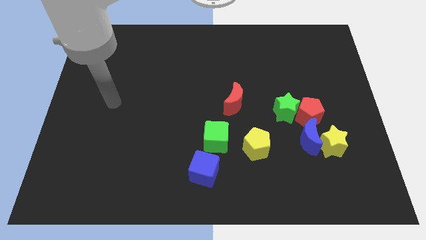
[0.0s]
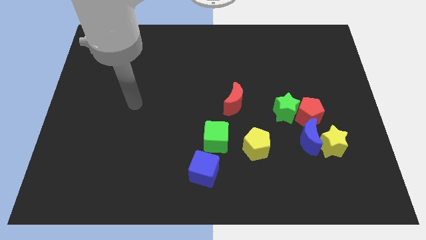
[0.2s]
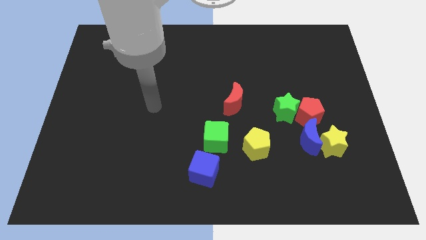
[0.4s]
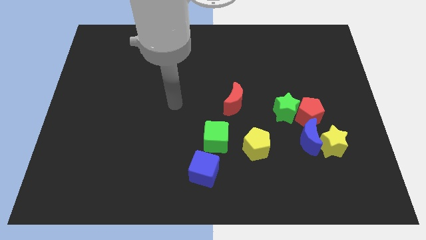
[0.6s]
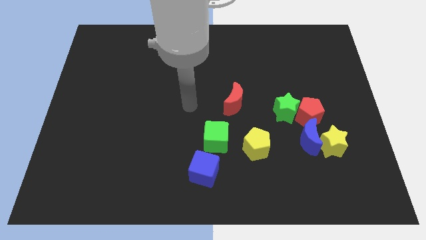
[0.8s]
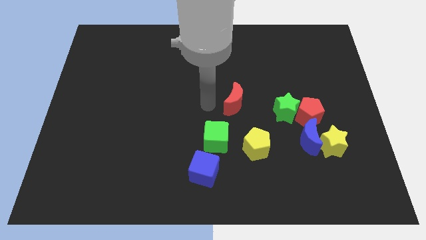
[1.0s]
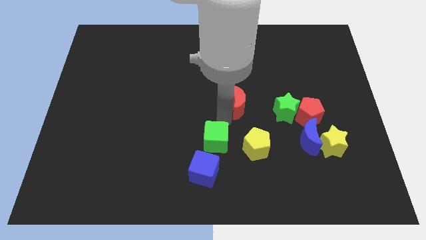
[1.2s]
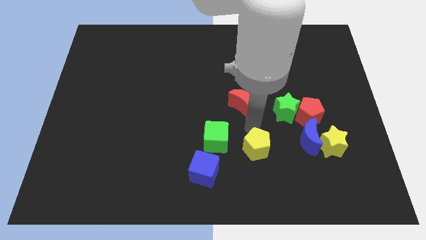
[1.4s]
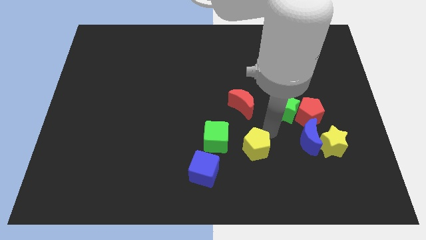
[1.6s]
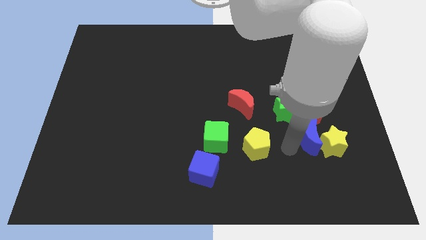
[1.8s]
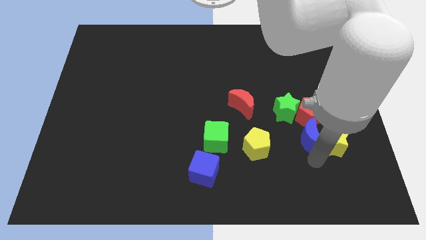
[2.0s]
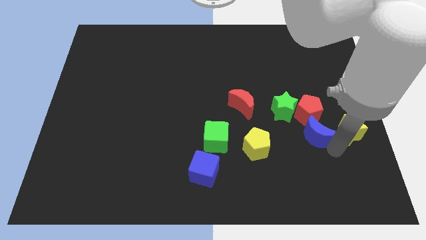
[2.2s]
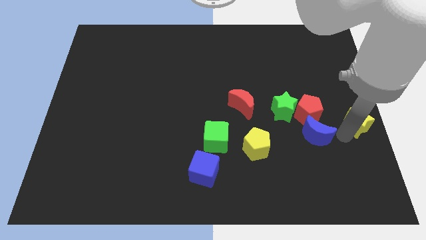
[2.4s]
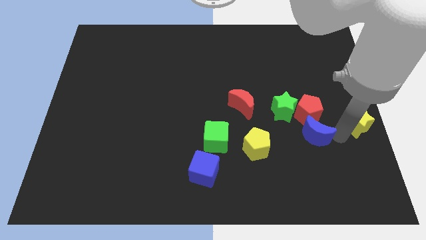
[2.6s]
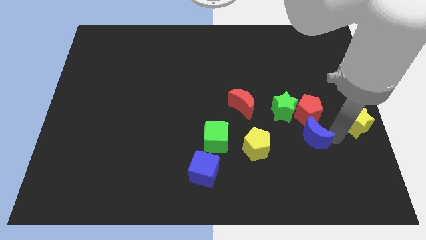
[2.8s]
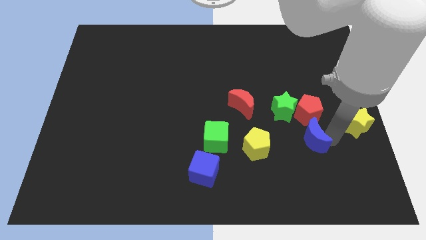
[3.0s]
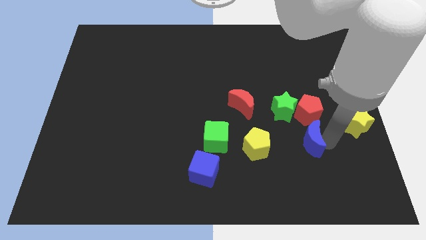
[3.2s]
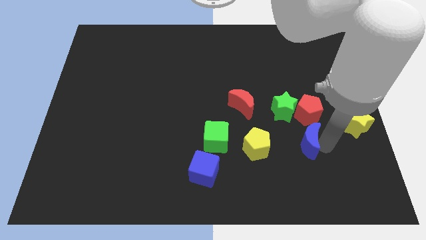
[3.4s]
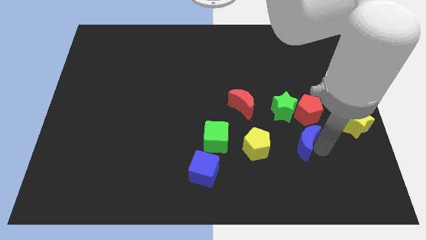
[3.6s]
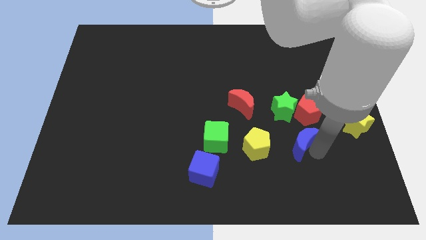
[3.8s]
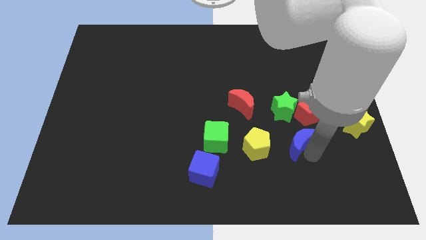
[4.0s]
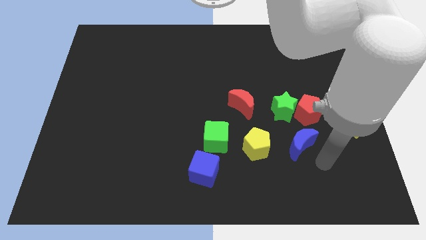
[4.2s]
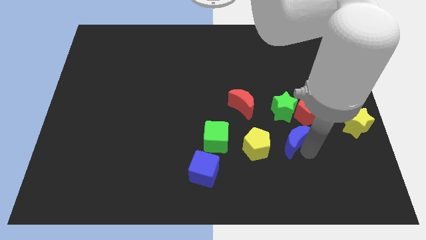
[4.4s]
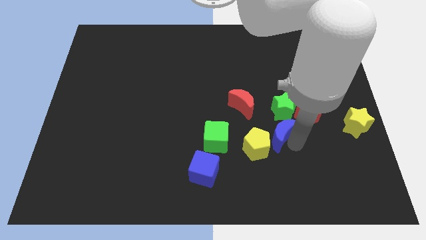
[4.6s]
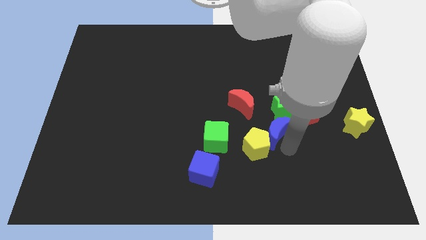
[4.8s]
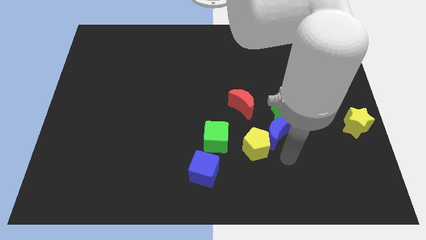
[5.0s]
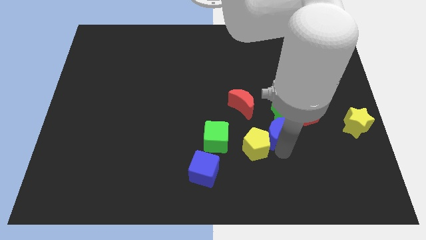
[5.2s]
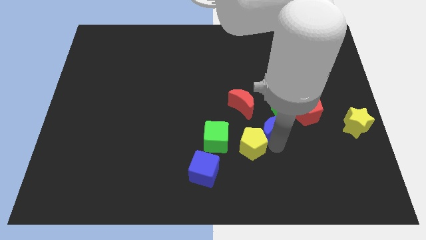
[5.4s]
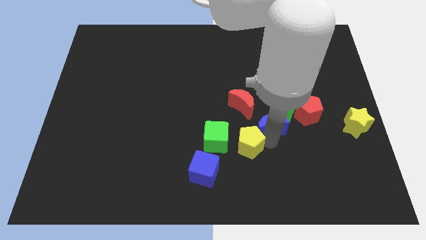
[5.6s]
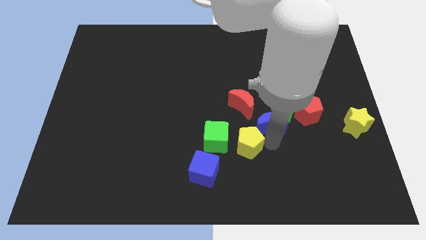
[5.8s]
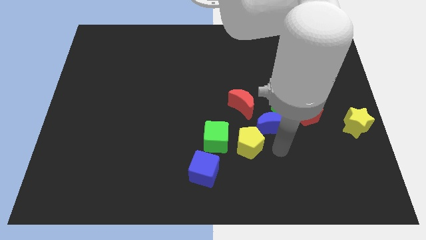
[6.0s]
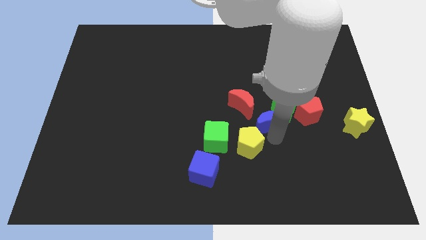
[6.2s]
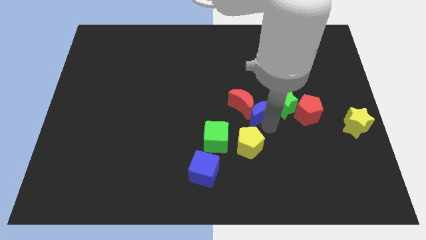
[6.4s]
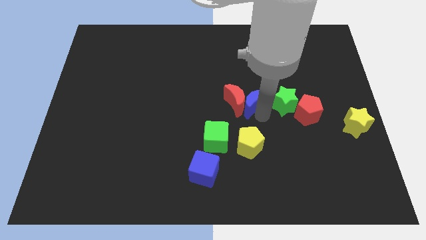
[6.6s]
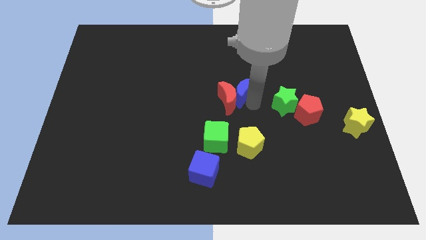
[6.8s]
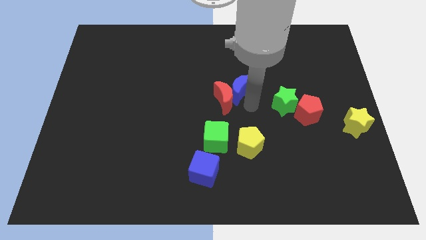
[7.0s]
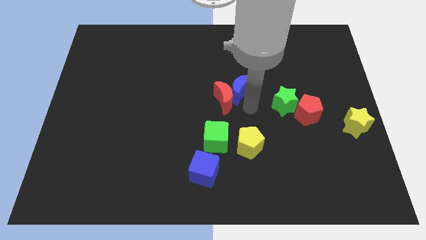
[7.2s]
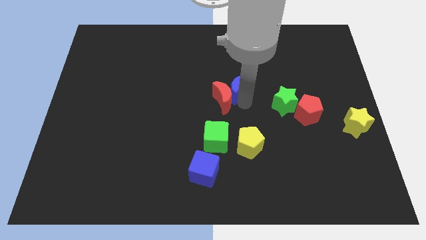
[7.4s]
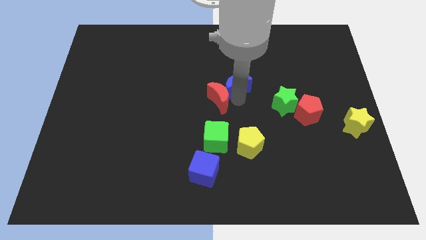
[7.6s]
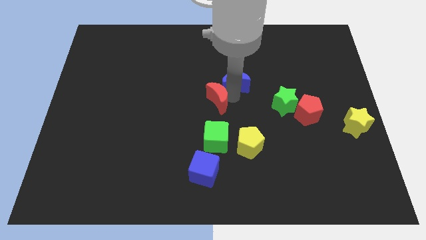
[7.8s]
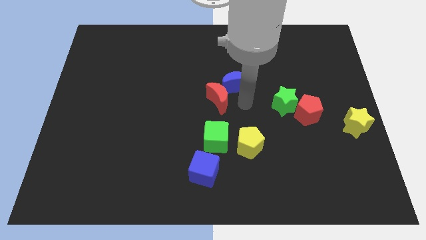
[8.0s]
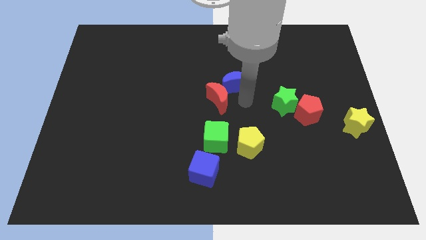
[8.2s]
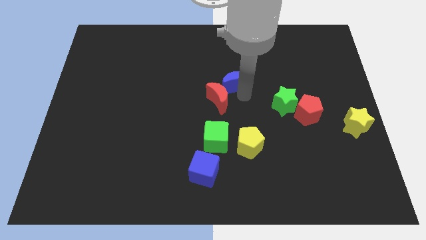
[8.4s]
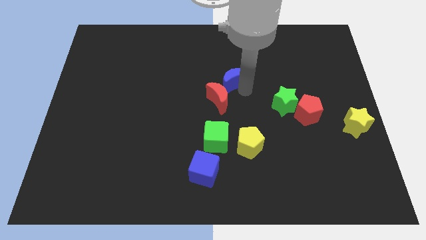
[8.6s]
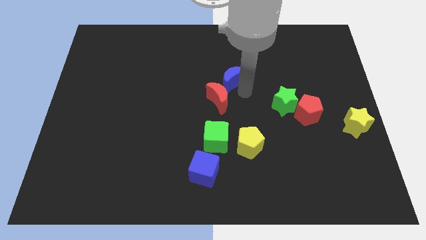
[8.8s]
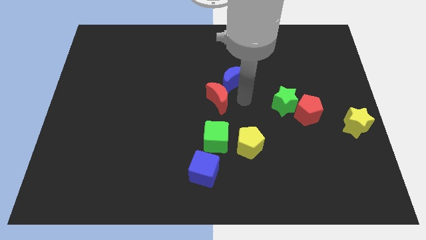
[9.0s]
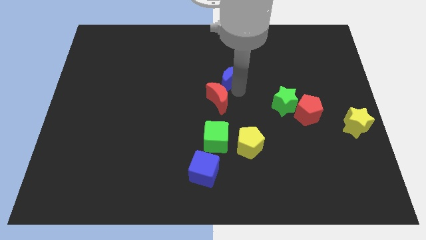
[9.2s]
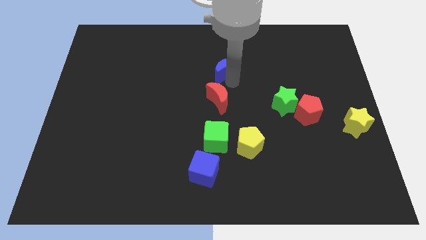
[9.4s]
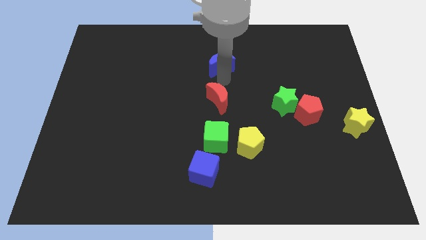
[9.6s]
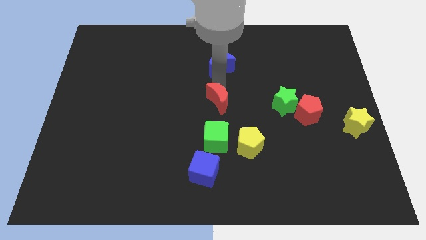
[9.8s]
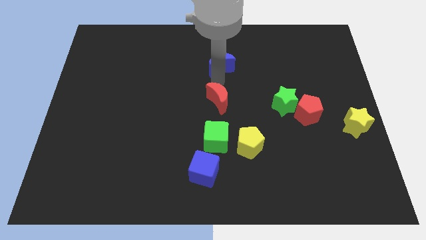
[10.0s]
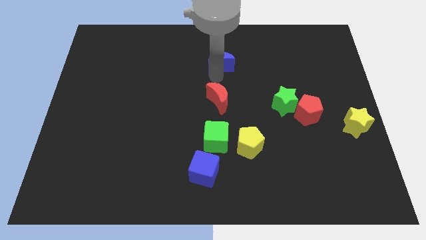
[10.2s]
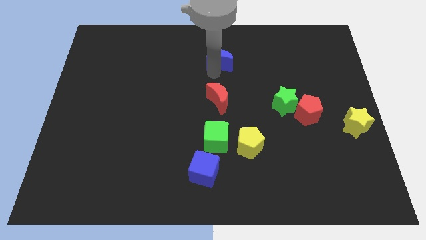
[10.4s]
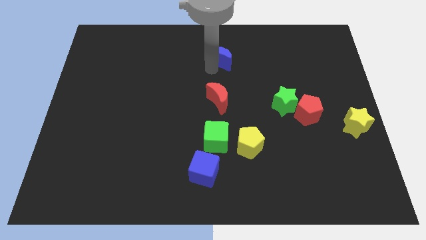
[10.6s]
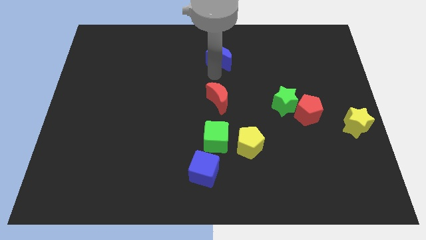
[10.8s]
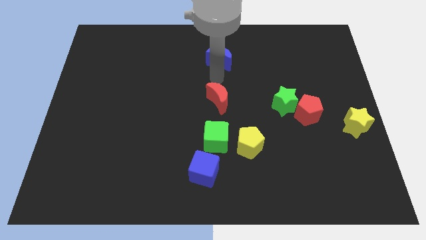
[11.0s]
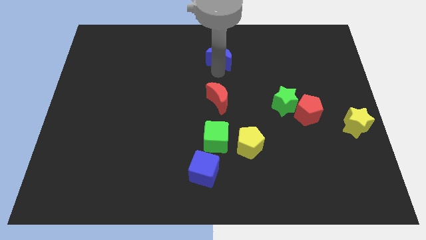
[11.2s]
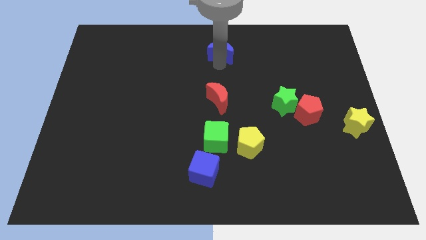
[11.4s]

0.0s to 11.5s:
slide the blue moon to the top side
